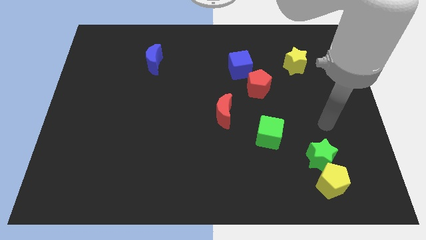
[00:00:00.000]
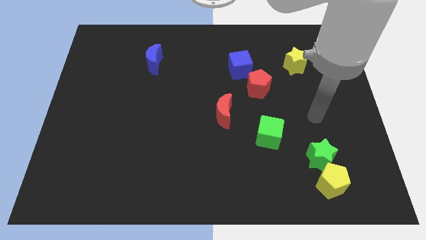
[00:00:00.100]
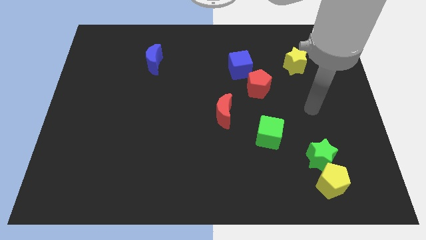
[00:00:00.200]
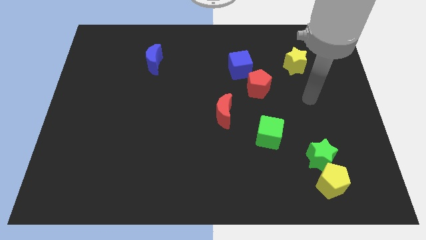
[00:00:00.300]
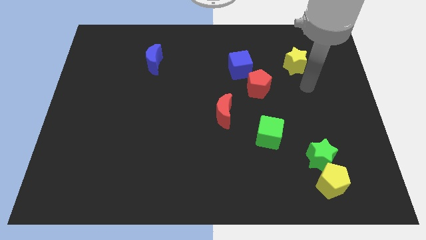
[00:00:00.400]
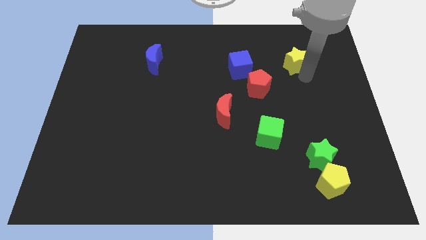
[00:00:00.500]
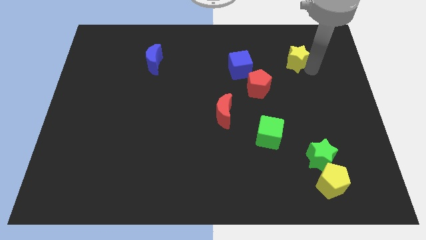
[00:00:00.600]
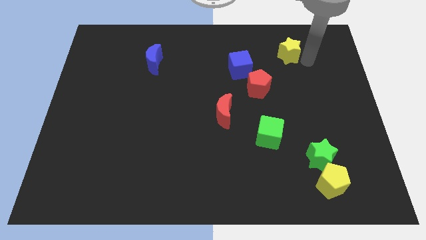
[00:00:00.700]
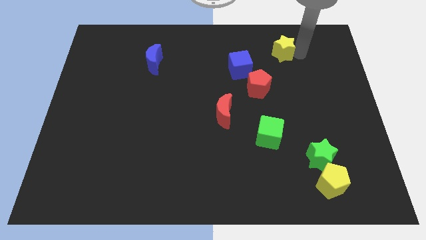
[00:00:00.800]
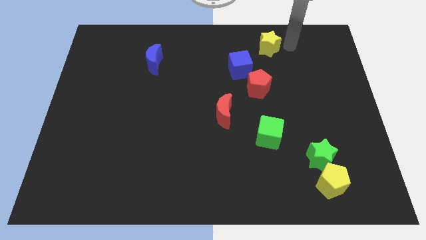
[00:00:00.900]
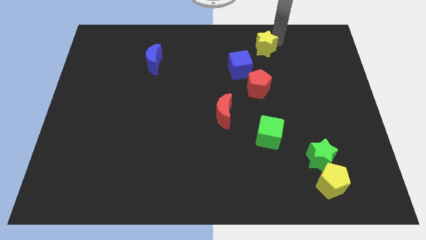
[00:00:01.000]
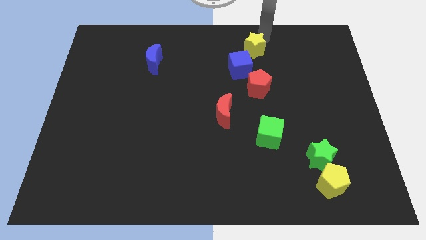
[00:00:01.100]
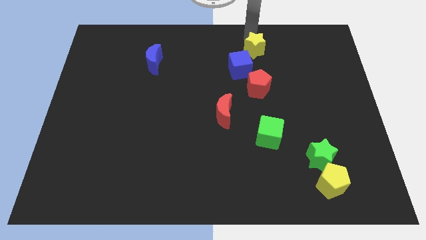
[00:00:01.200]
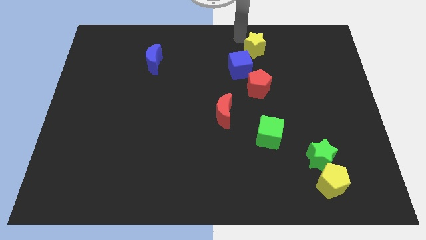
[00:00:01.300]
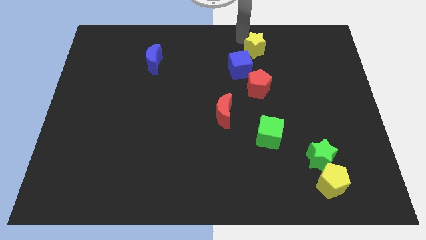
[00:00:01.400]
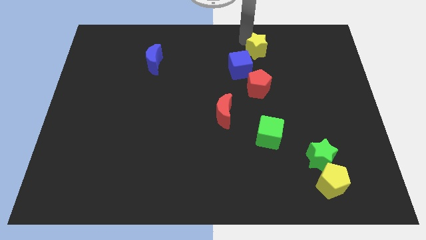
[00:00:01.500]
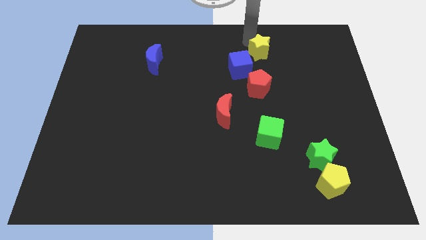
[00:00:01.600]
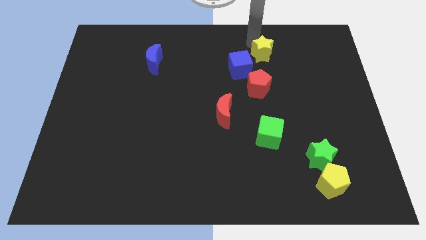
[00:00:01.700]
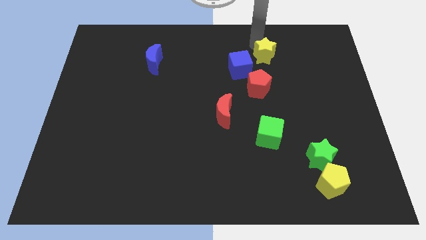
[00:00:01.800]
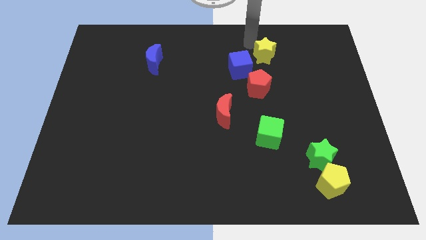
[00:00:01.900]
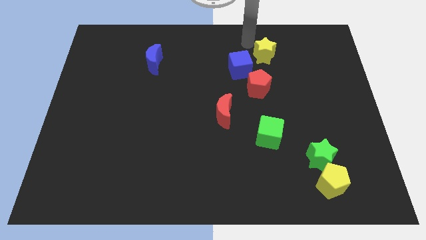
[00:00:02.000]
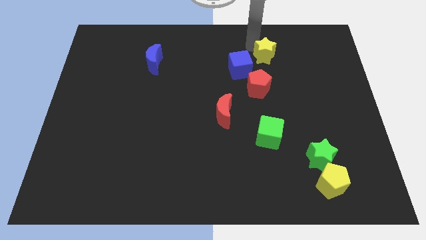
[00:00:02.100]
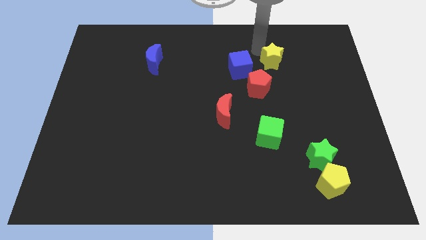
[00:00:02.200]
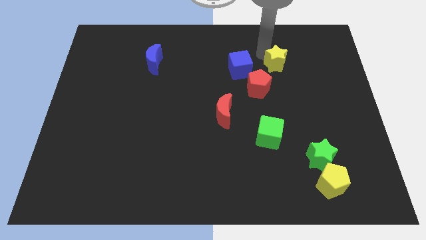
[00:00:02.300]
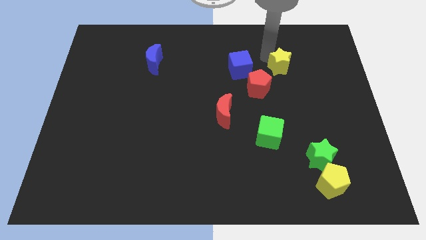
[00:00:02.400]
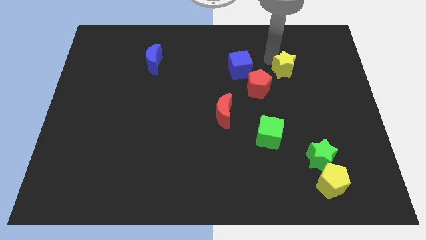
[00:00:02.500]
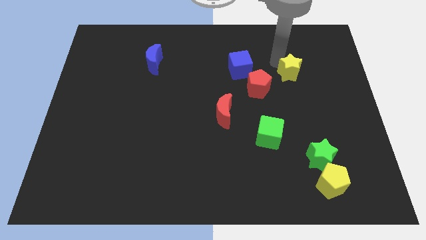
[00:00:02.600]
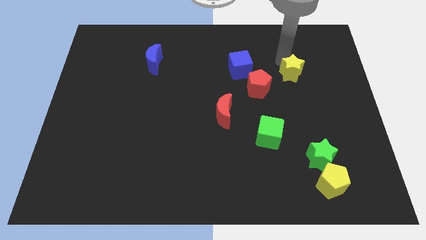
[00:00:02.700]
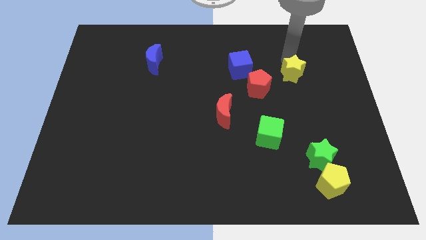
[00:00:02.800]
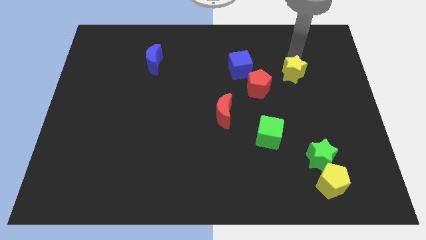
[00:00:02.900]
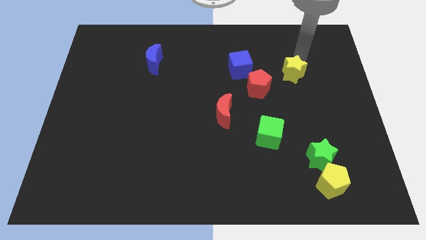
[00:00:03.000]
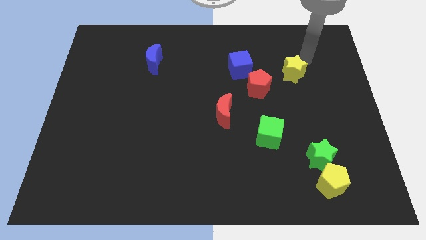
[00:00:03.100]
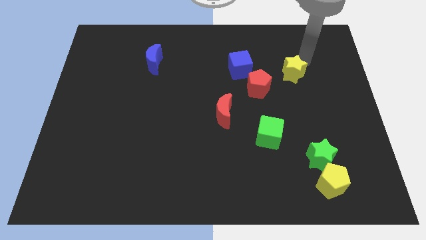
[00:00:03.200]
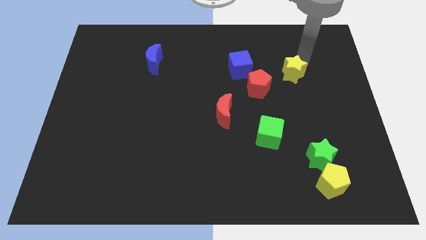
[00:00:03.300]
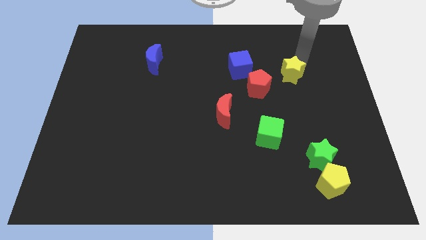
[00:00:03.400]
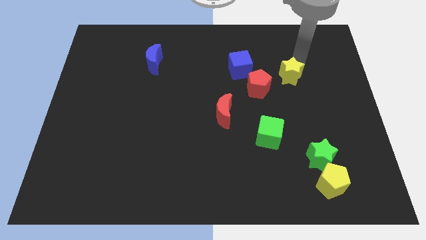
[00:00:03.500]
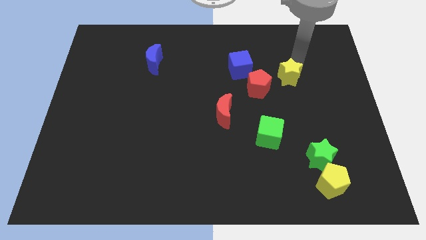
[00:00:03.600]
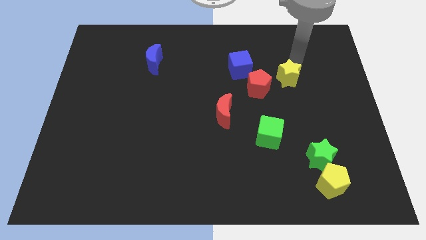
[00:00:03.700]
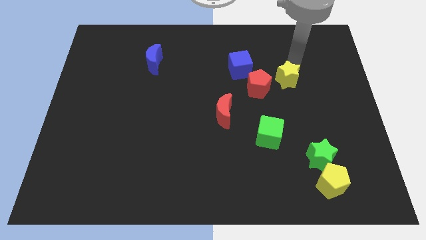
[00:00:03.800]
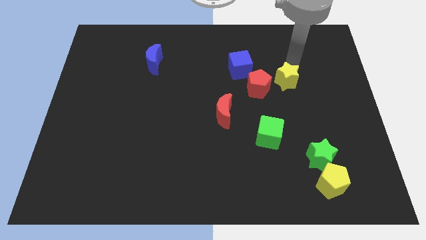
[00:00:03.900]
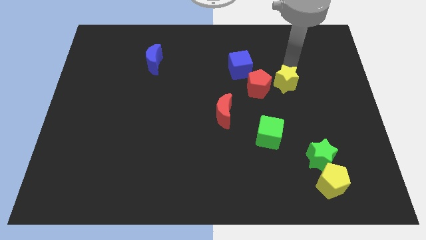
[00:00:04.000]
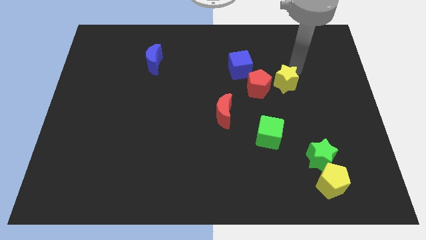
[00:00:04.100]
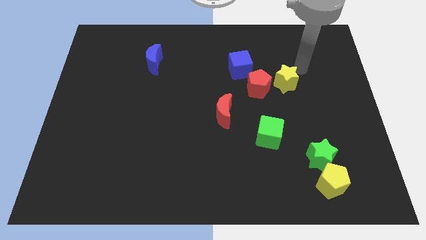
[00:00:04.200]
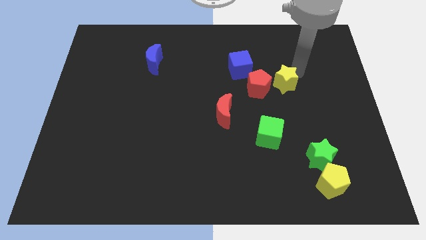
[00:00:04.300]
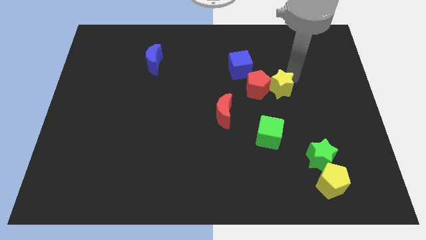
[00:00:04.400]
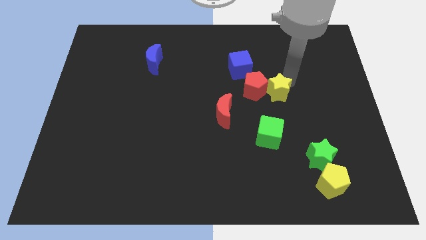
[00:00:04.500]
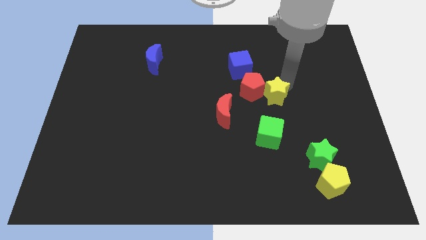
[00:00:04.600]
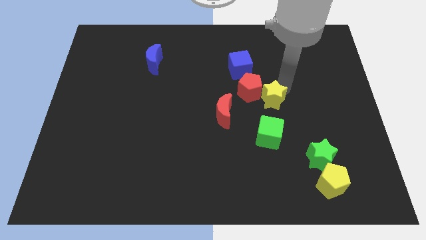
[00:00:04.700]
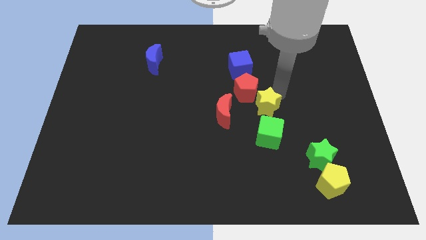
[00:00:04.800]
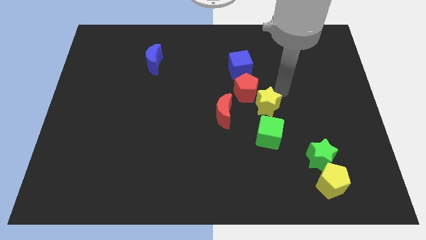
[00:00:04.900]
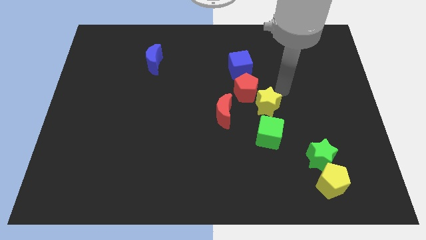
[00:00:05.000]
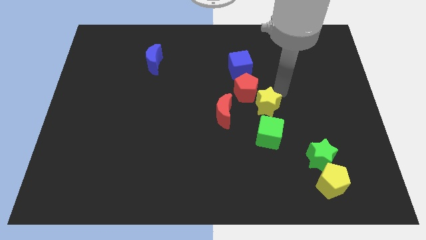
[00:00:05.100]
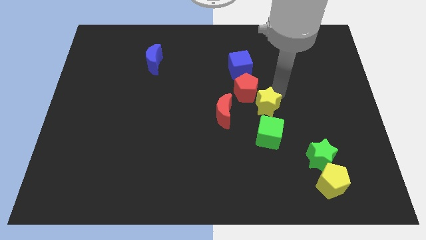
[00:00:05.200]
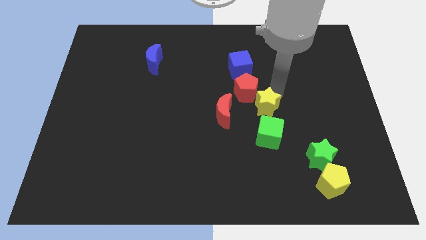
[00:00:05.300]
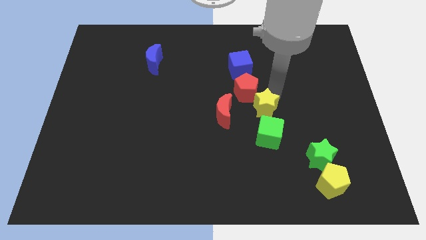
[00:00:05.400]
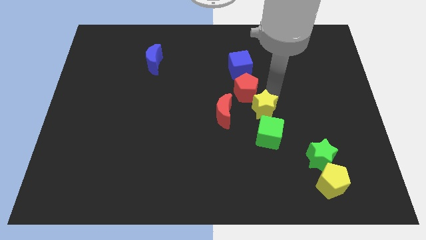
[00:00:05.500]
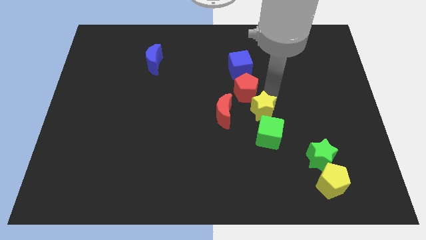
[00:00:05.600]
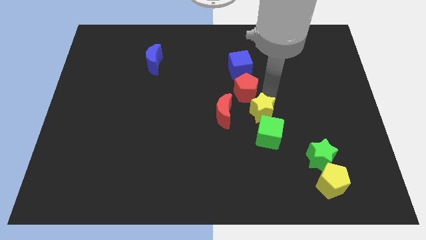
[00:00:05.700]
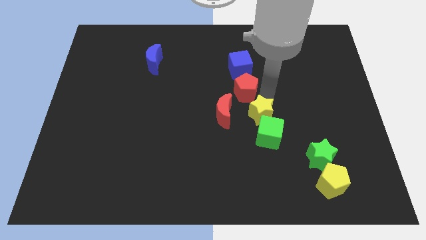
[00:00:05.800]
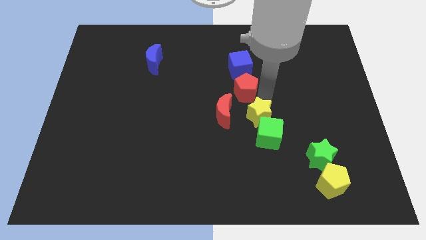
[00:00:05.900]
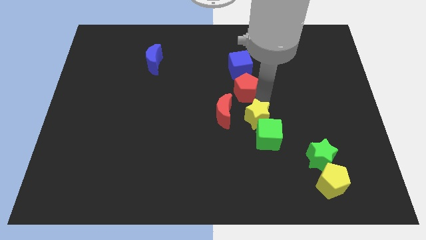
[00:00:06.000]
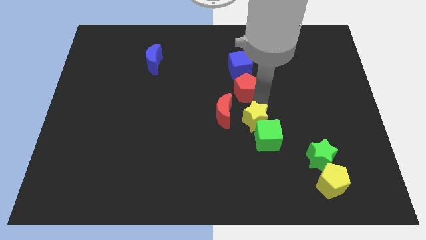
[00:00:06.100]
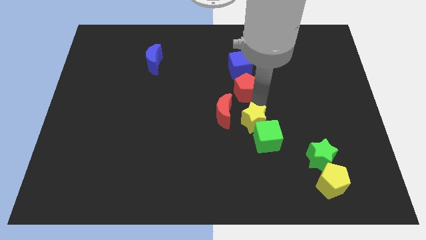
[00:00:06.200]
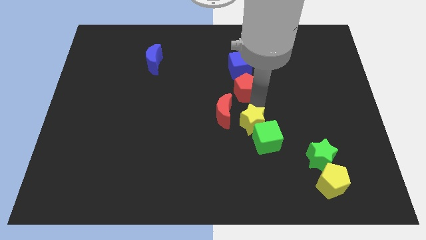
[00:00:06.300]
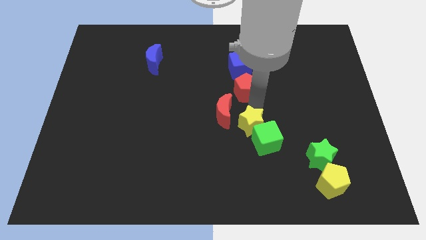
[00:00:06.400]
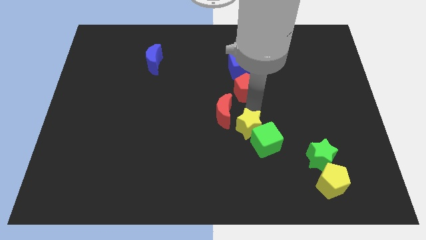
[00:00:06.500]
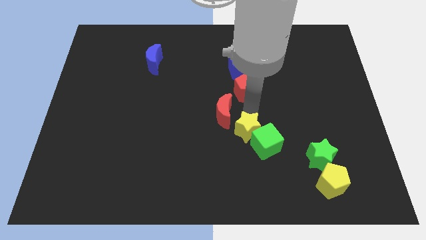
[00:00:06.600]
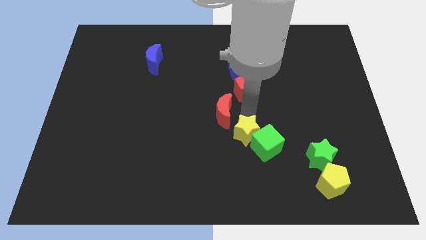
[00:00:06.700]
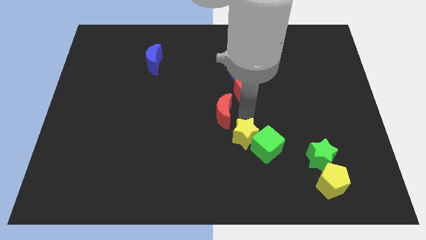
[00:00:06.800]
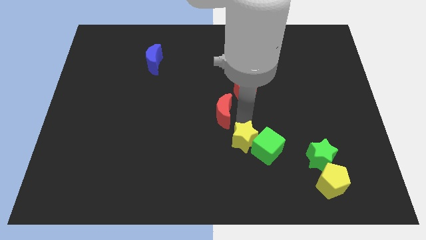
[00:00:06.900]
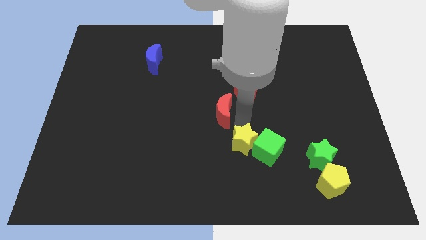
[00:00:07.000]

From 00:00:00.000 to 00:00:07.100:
slide the yellow star to the bottom left side of the green cube

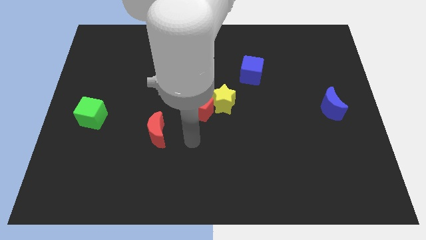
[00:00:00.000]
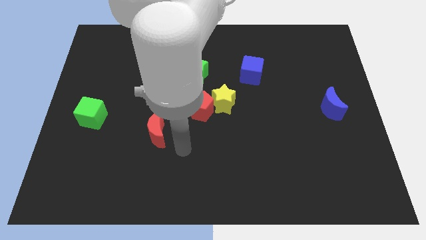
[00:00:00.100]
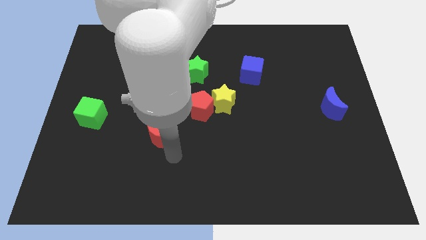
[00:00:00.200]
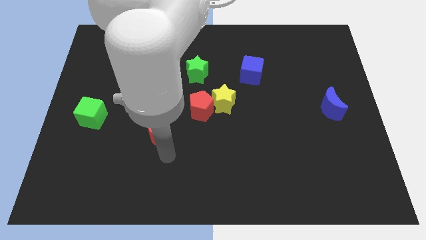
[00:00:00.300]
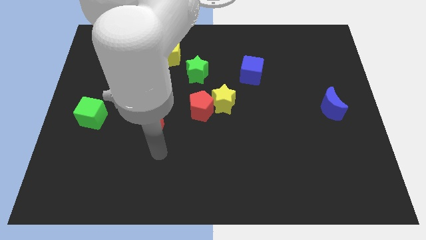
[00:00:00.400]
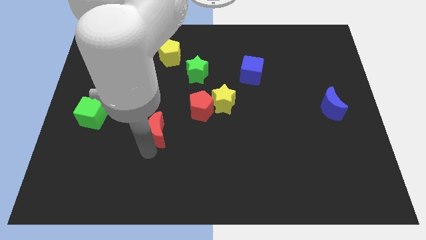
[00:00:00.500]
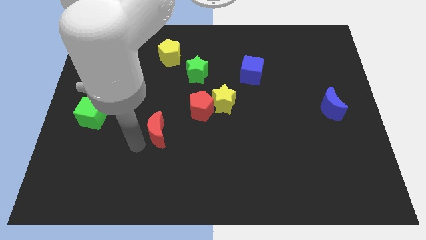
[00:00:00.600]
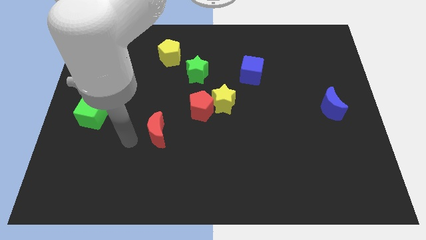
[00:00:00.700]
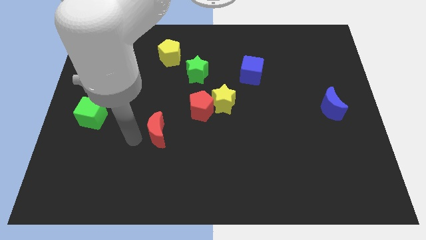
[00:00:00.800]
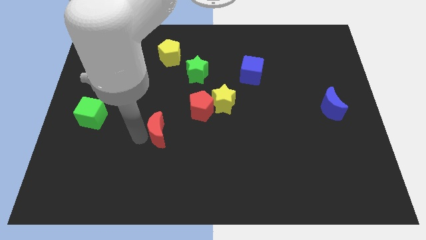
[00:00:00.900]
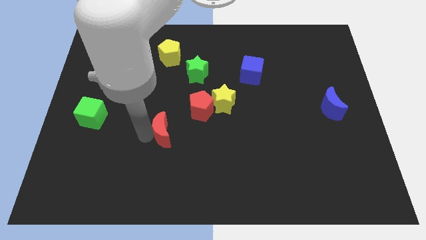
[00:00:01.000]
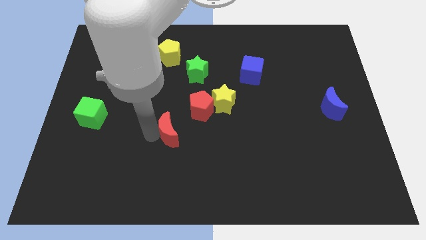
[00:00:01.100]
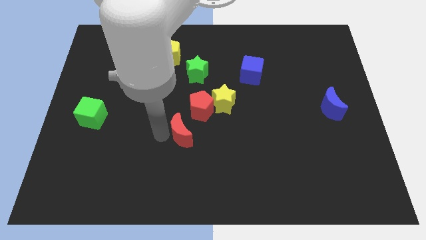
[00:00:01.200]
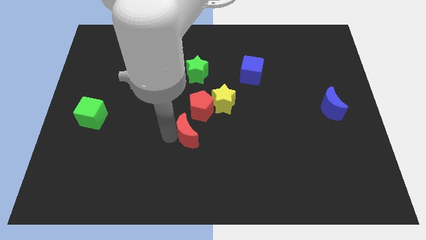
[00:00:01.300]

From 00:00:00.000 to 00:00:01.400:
push the red moon to the bottom left of the yellow star
